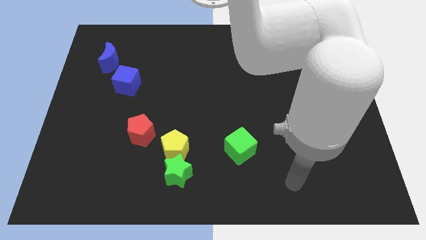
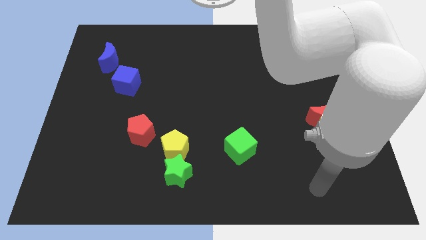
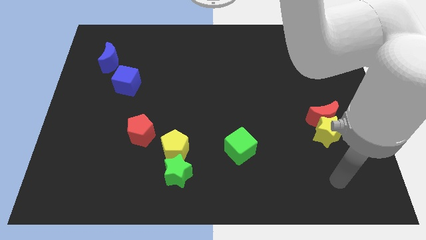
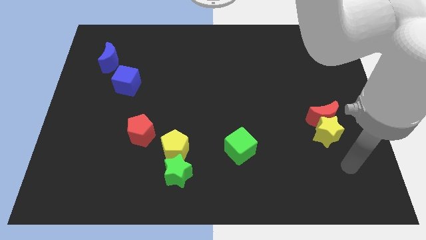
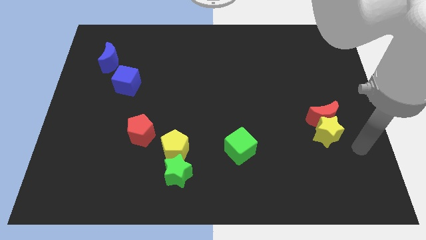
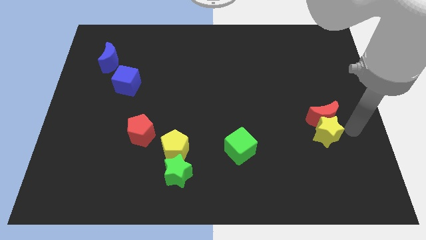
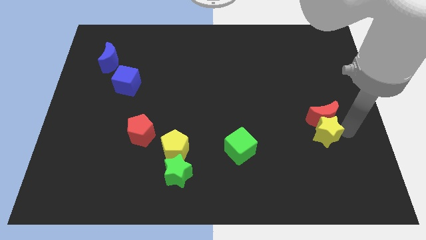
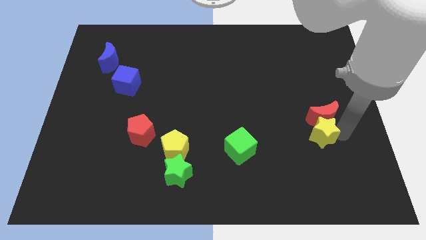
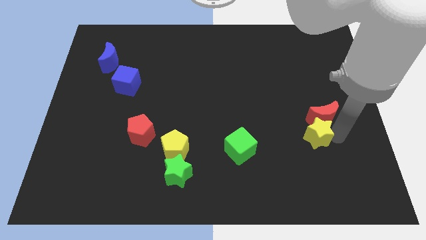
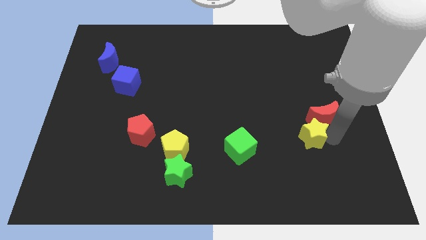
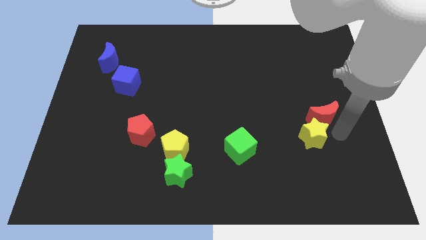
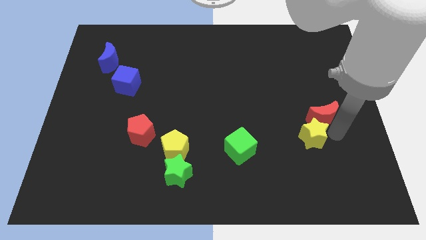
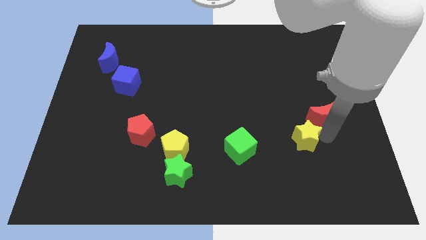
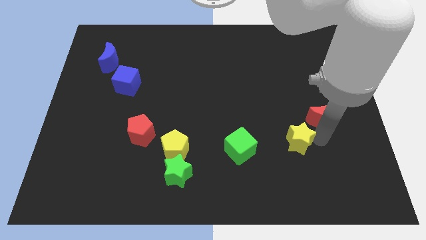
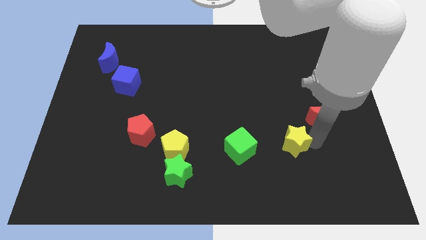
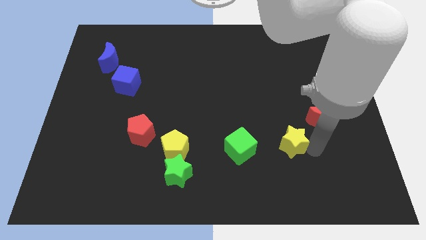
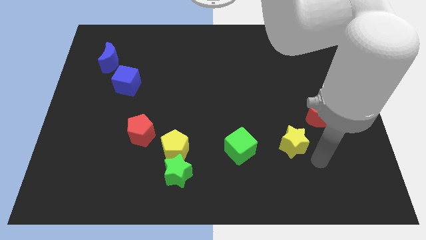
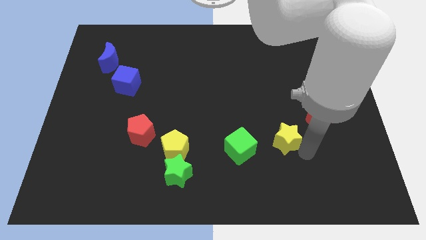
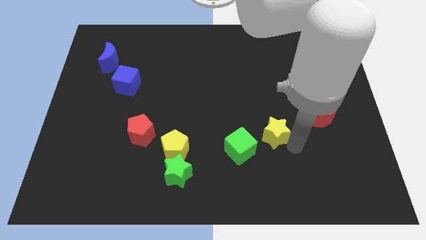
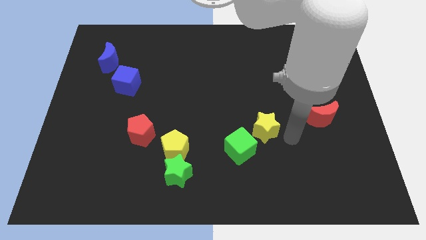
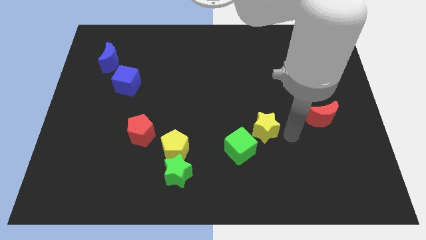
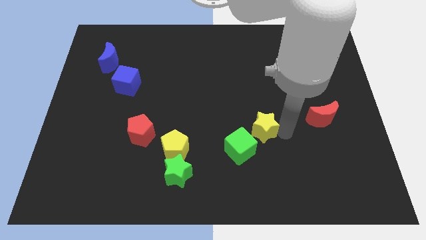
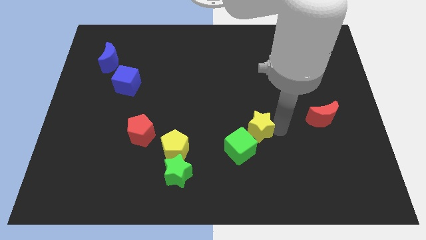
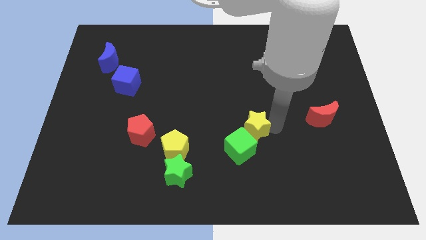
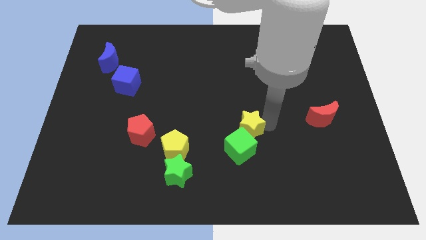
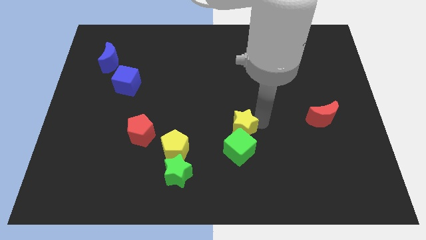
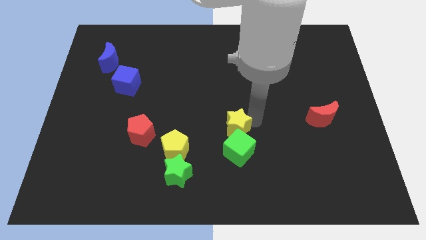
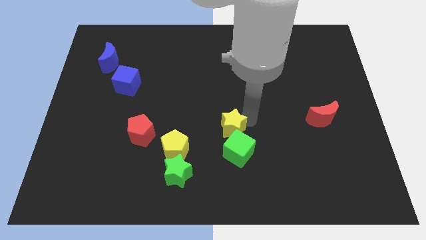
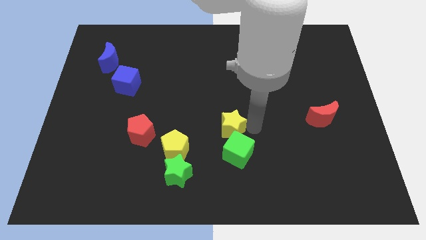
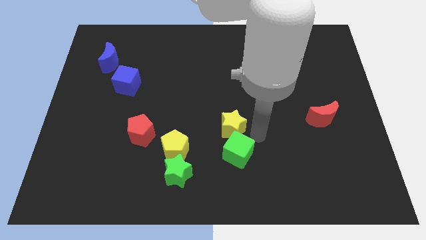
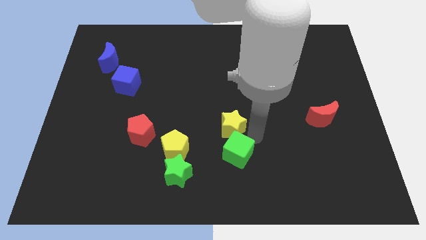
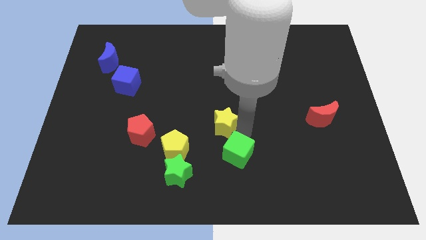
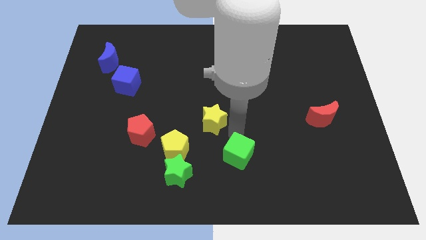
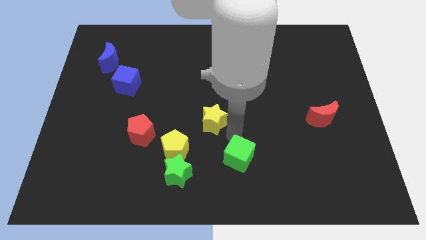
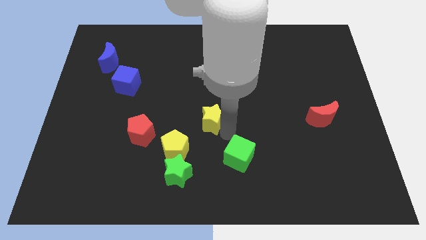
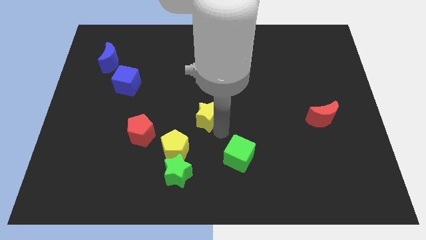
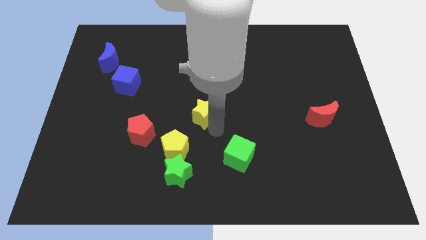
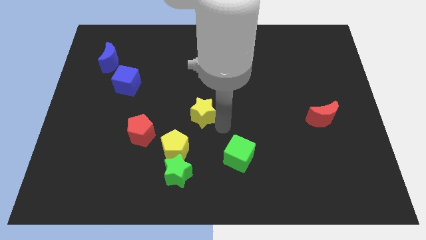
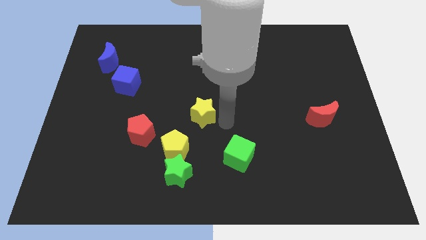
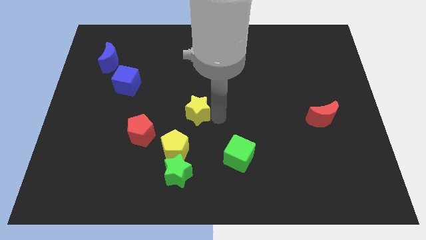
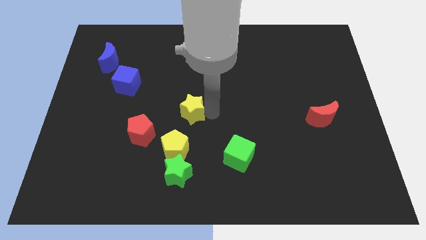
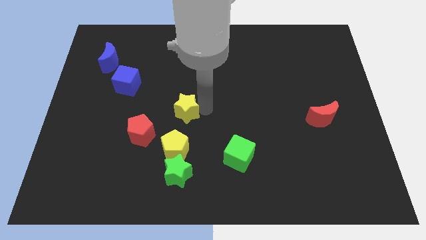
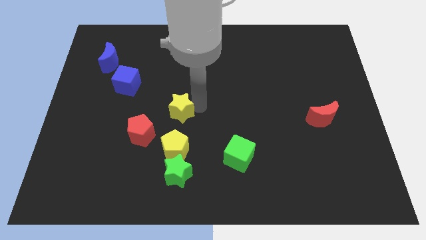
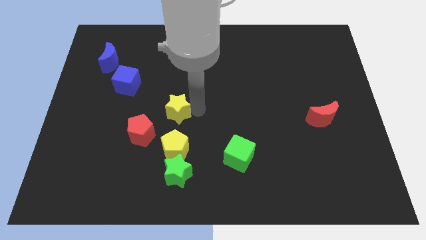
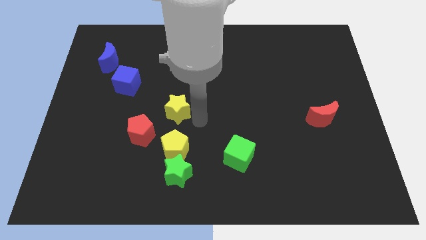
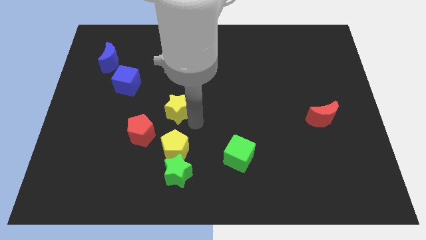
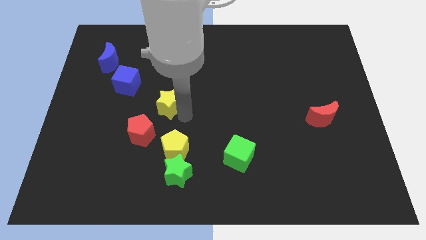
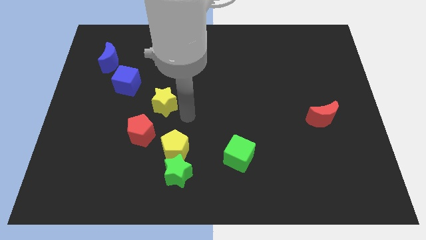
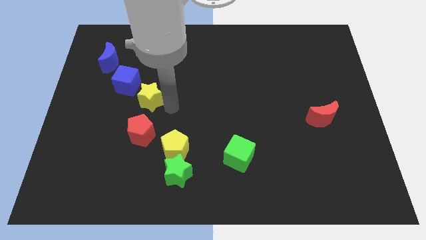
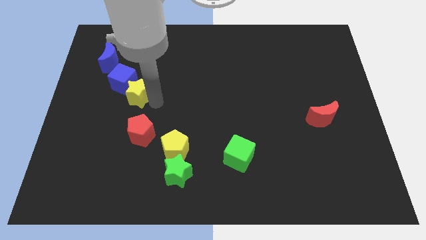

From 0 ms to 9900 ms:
move the yellow star to the blue cube

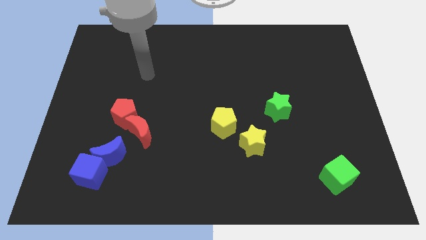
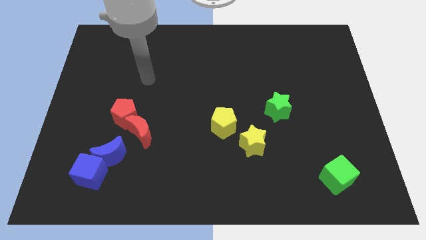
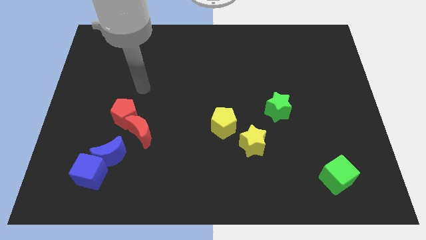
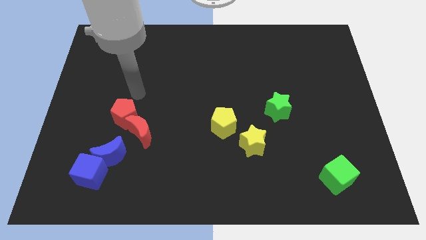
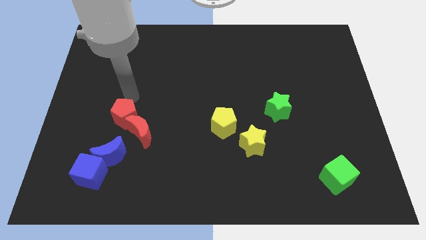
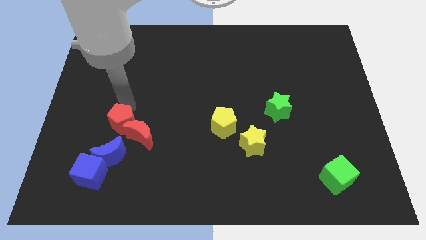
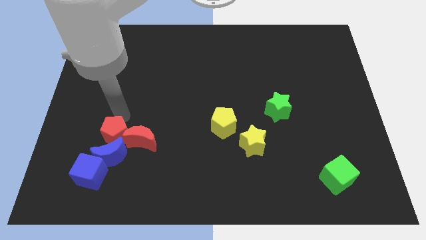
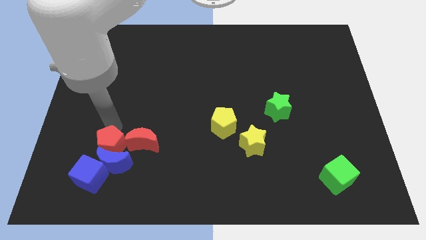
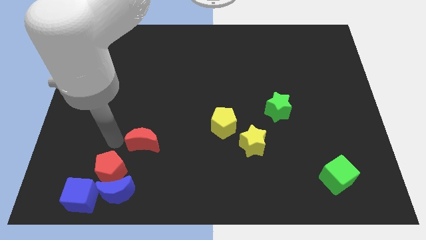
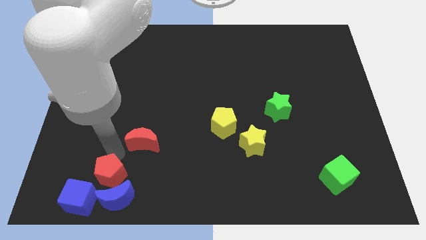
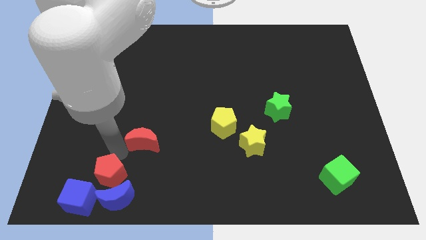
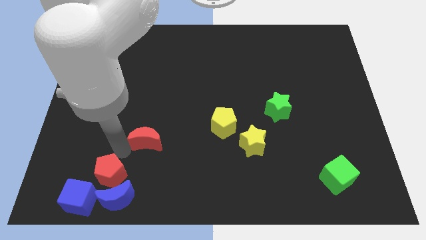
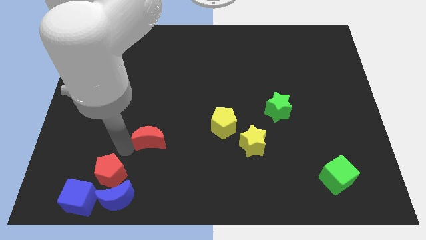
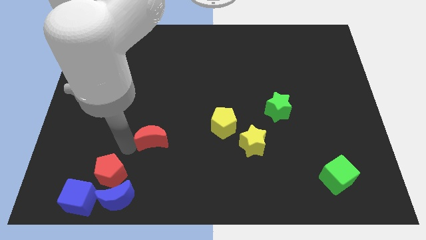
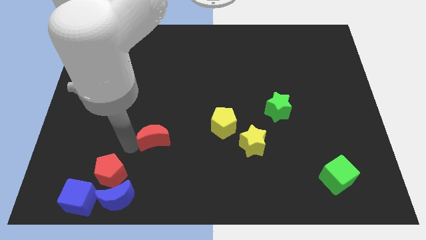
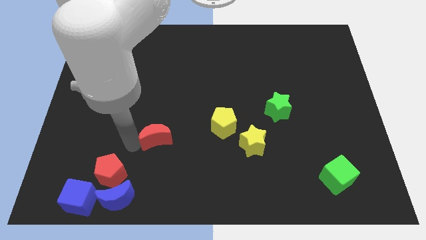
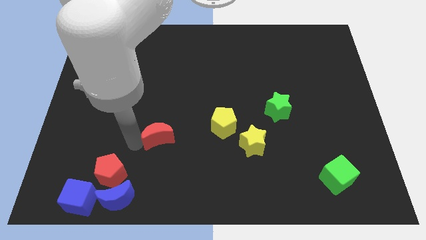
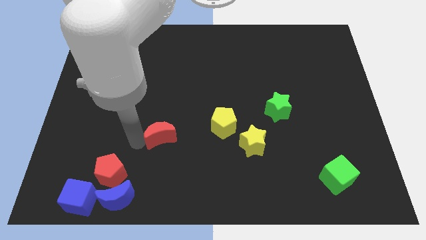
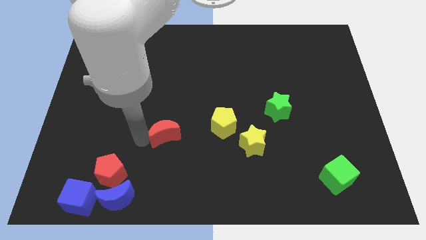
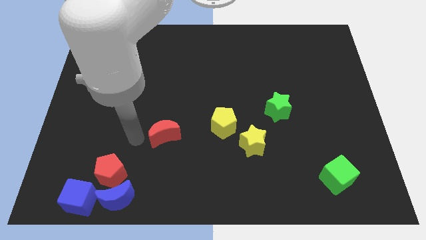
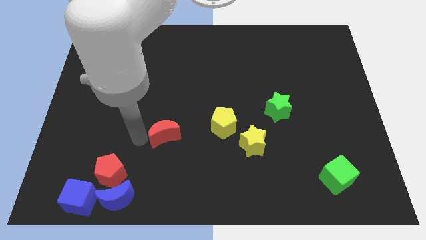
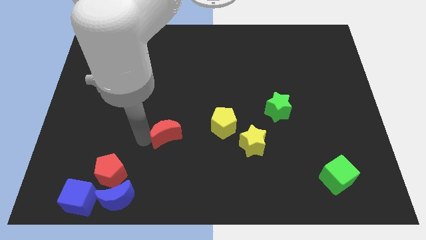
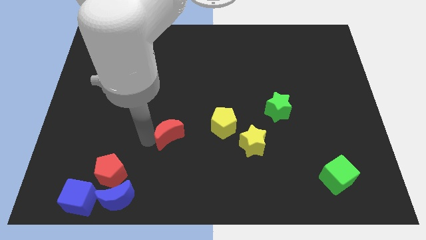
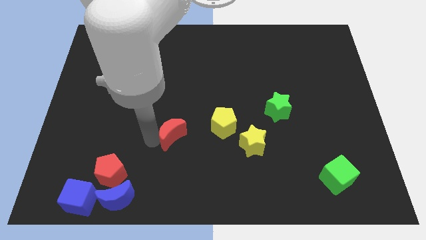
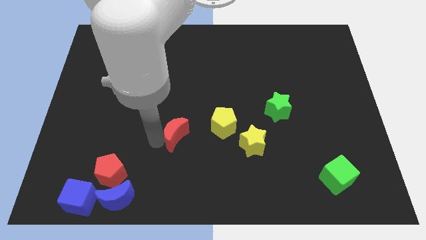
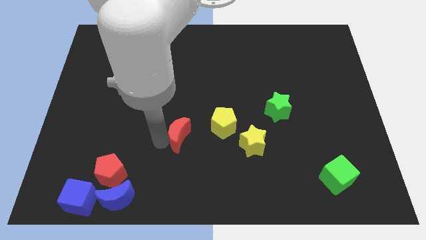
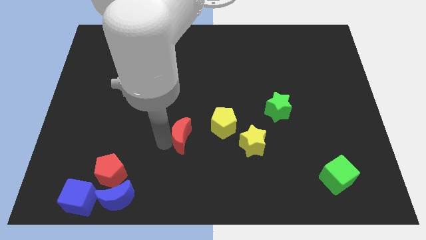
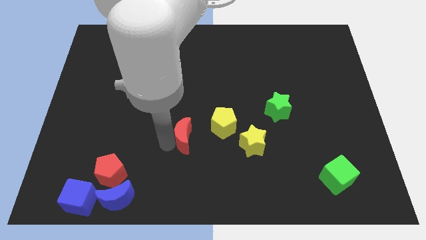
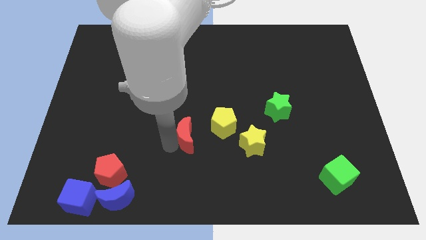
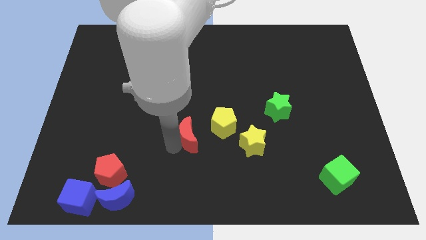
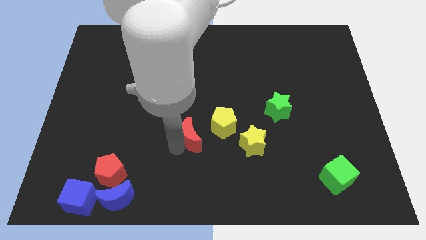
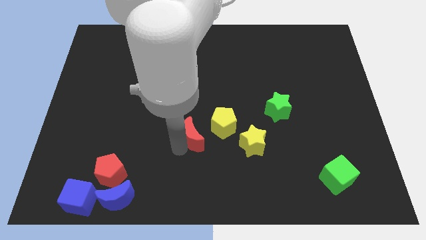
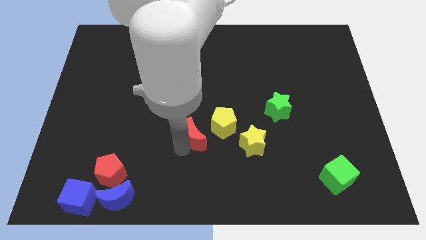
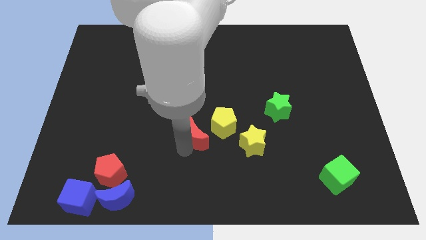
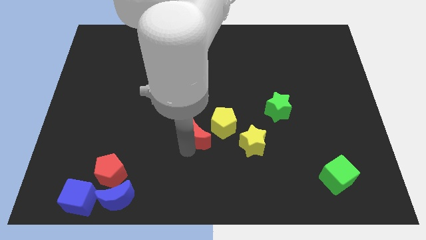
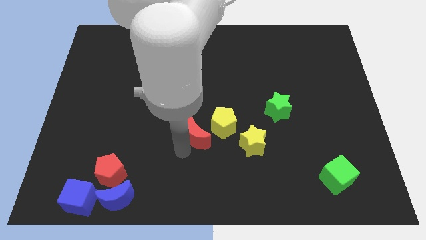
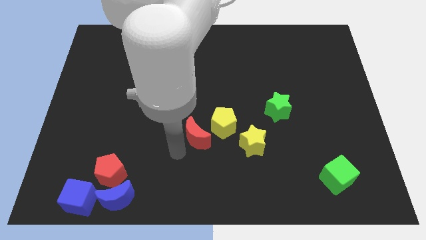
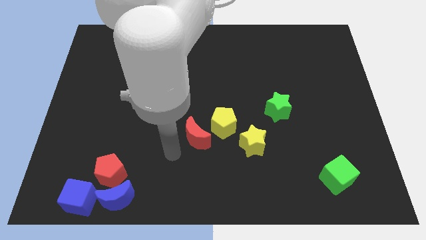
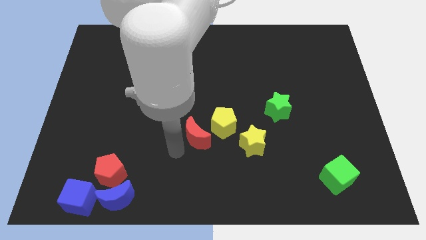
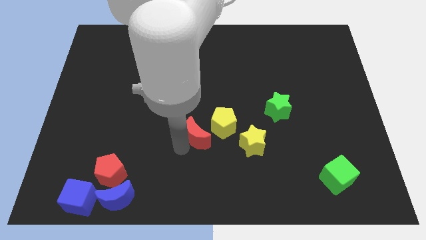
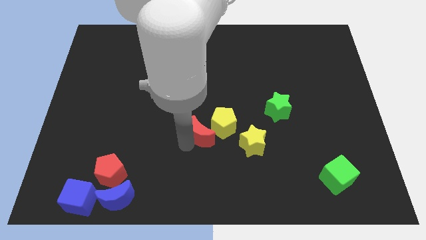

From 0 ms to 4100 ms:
put the red moon close to the yellow pentagon
